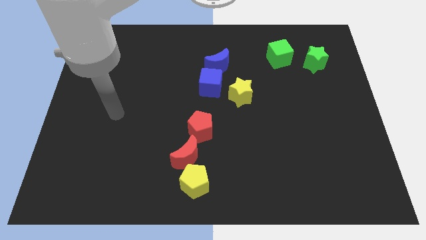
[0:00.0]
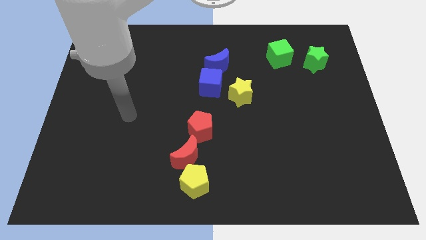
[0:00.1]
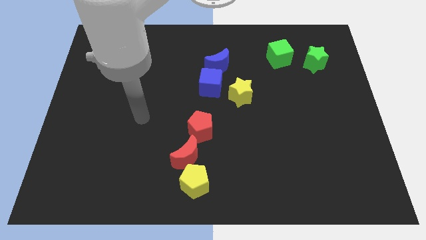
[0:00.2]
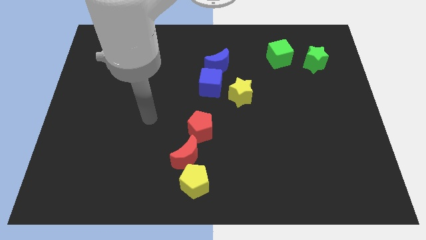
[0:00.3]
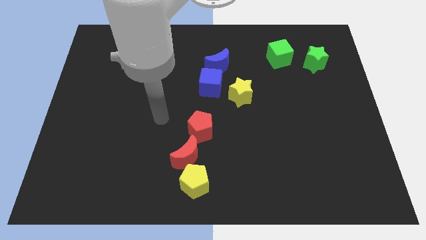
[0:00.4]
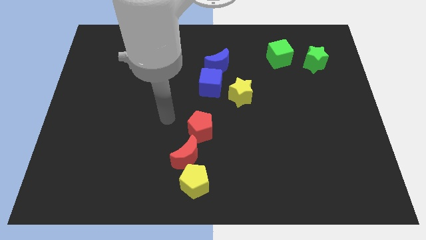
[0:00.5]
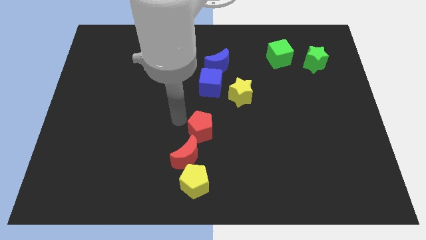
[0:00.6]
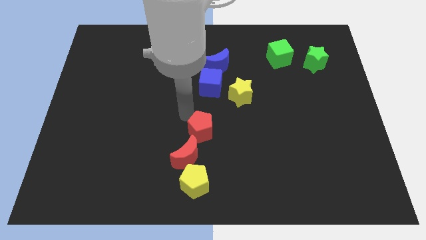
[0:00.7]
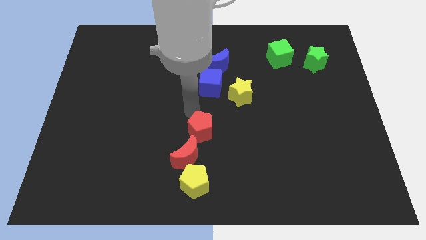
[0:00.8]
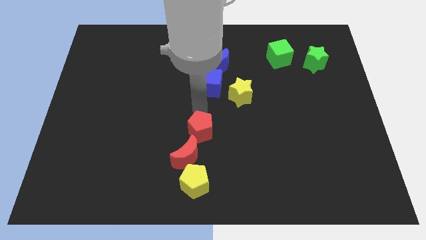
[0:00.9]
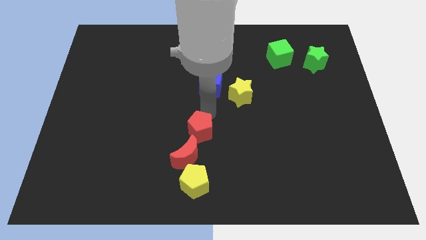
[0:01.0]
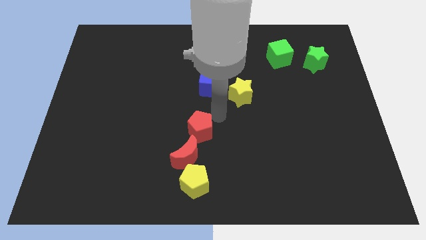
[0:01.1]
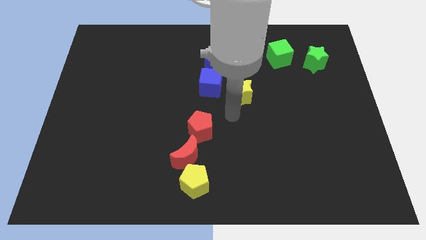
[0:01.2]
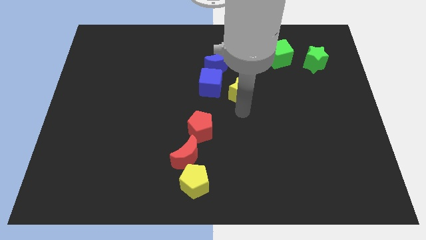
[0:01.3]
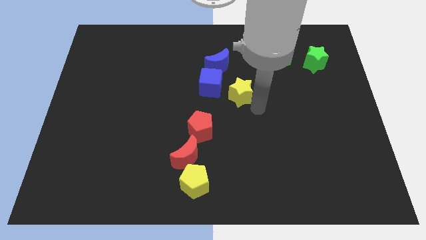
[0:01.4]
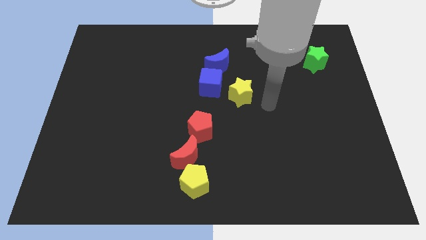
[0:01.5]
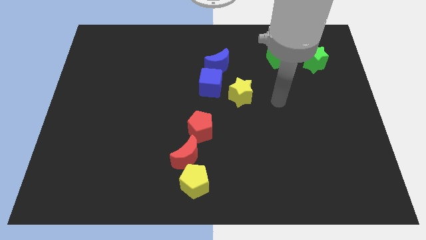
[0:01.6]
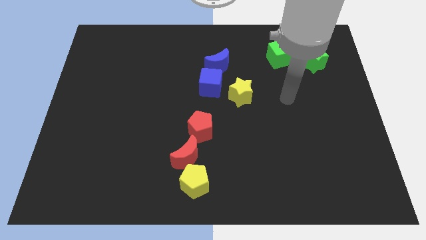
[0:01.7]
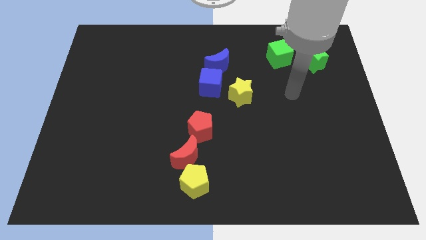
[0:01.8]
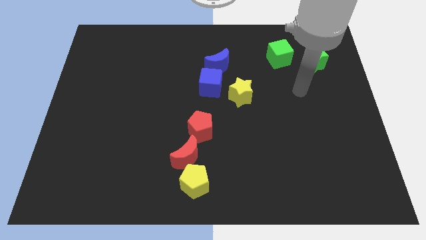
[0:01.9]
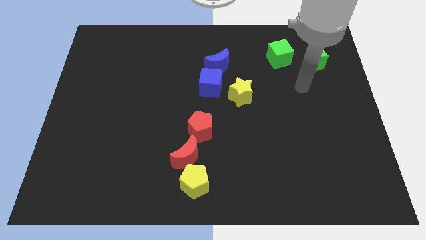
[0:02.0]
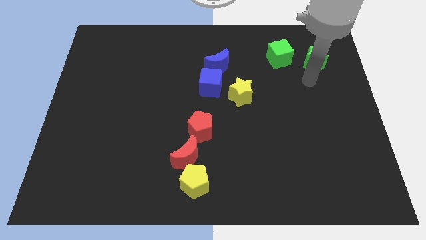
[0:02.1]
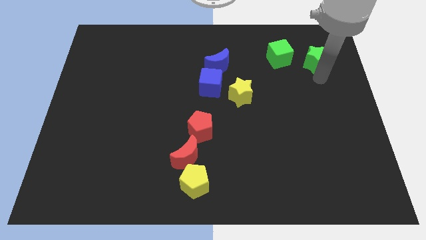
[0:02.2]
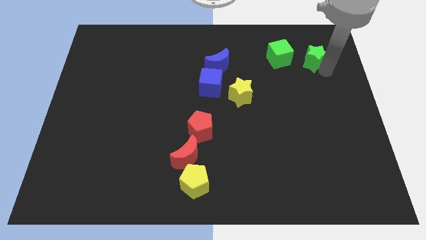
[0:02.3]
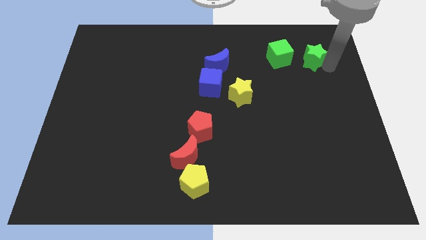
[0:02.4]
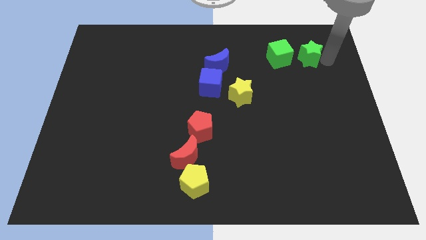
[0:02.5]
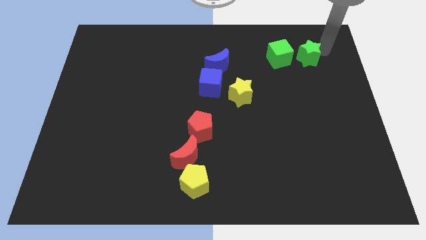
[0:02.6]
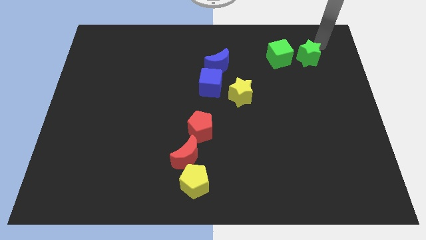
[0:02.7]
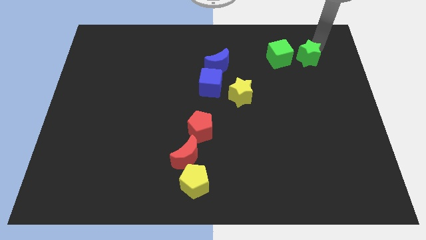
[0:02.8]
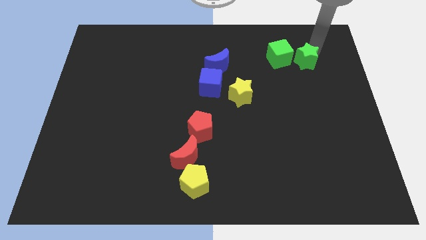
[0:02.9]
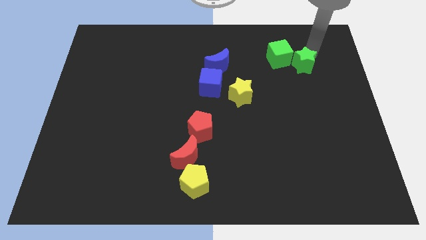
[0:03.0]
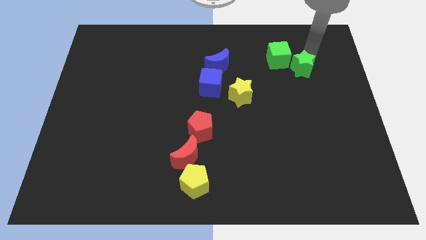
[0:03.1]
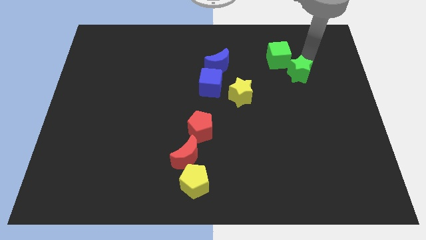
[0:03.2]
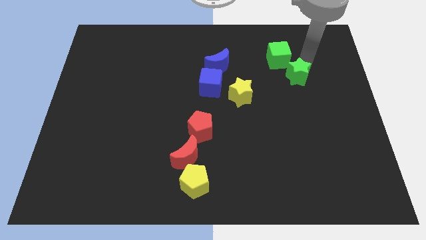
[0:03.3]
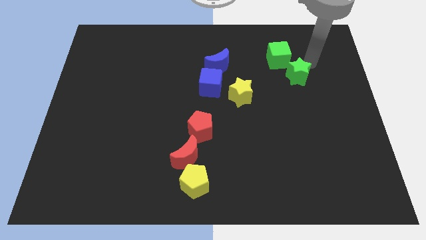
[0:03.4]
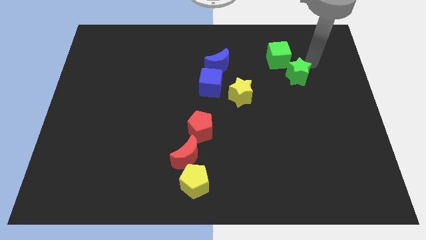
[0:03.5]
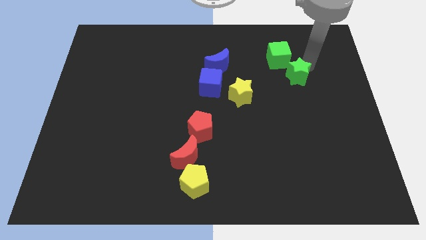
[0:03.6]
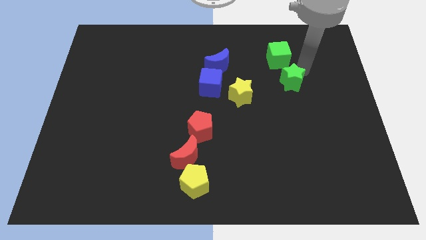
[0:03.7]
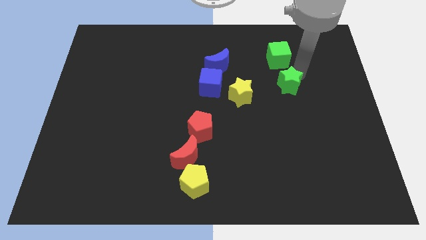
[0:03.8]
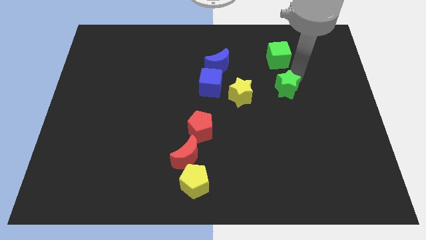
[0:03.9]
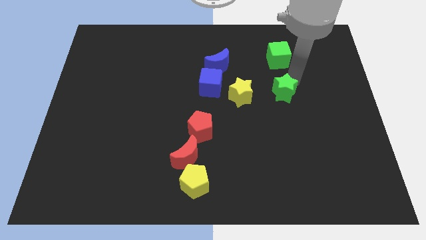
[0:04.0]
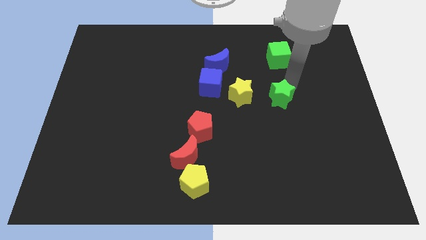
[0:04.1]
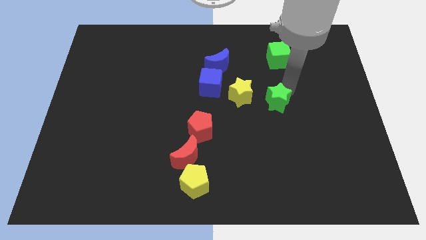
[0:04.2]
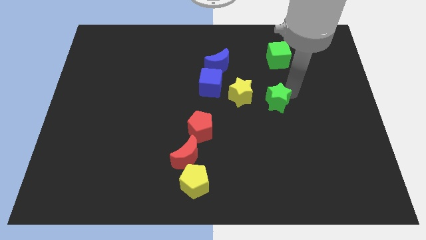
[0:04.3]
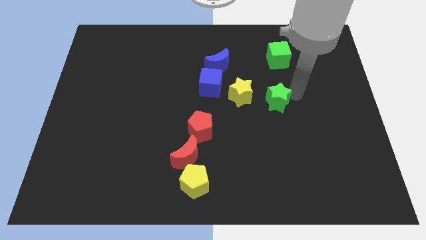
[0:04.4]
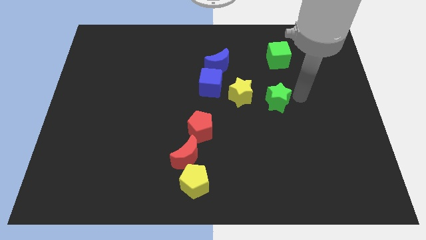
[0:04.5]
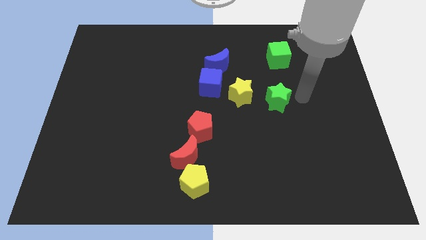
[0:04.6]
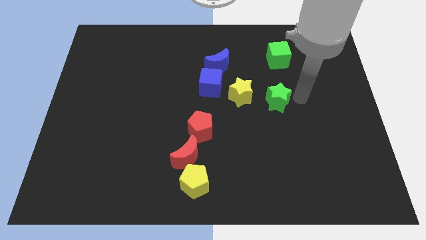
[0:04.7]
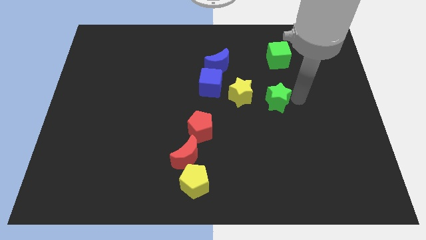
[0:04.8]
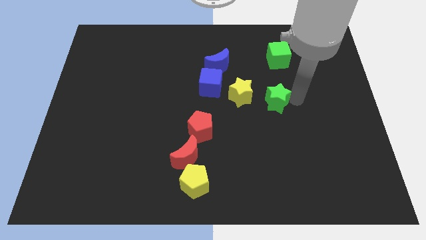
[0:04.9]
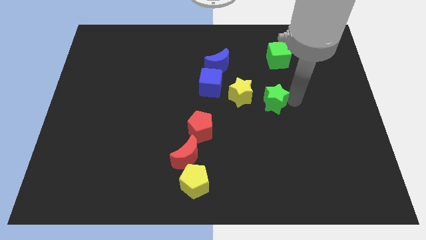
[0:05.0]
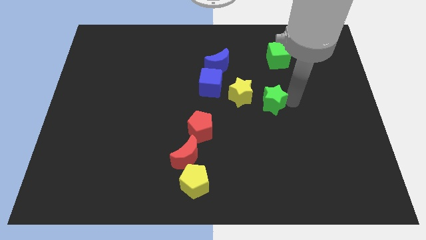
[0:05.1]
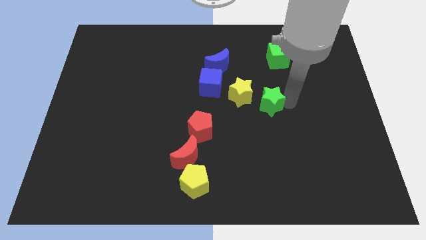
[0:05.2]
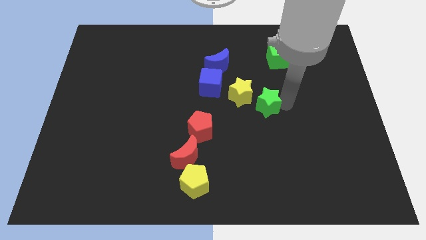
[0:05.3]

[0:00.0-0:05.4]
slide the green star to the center

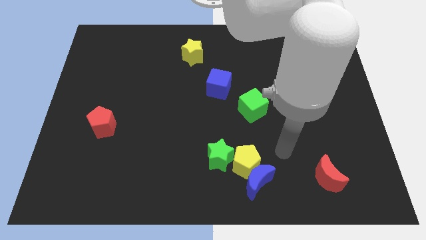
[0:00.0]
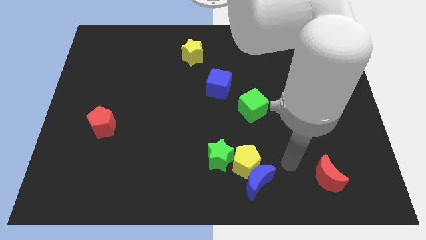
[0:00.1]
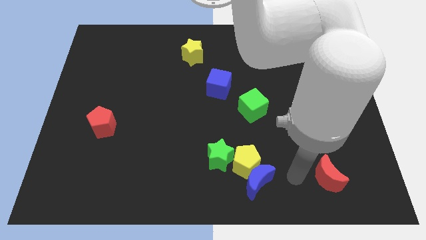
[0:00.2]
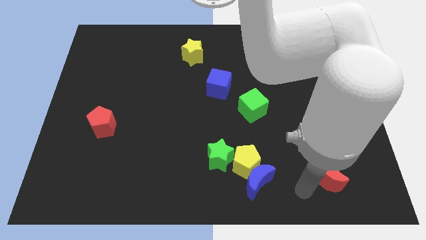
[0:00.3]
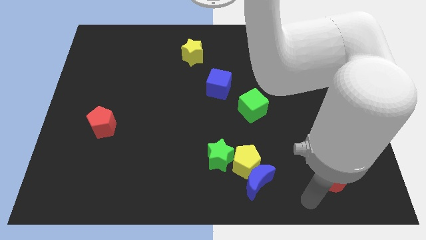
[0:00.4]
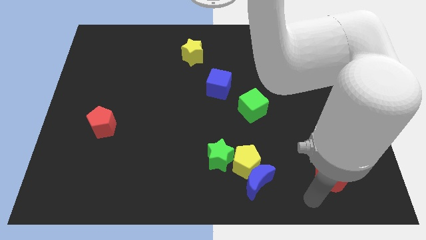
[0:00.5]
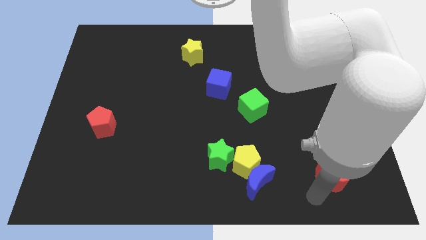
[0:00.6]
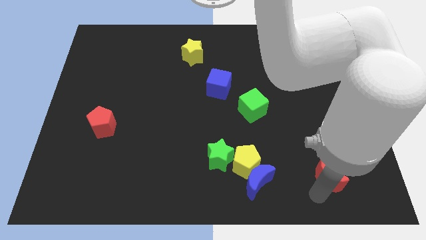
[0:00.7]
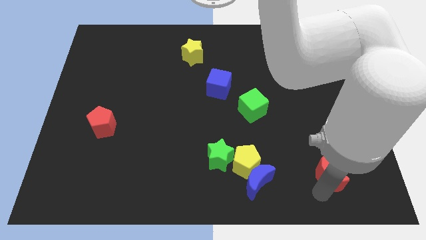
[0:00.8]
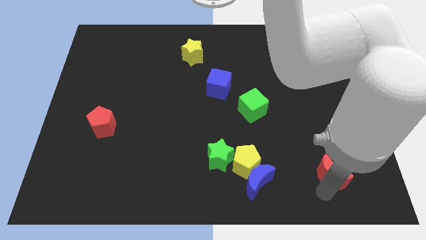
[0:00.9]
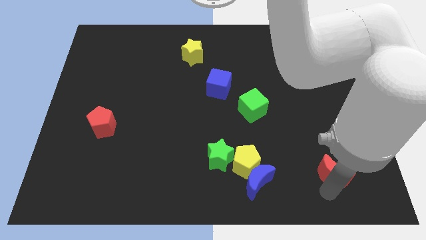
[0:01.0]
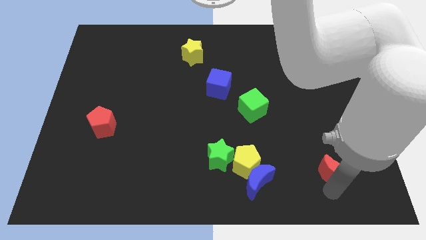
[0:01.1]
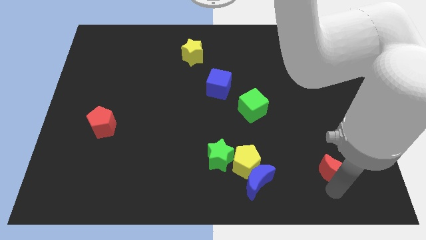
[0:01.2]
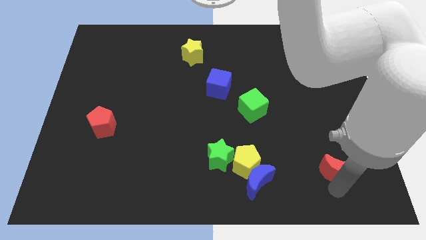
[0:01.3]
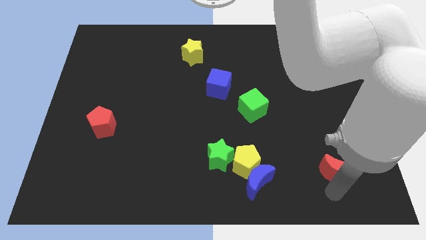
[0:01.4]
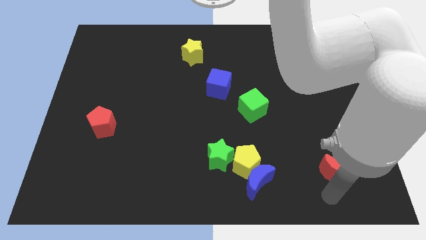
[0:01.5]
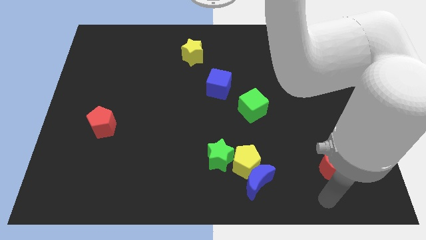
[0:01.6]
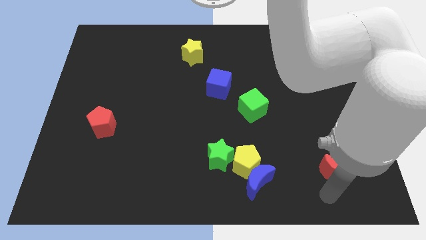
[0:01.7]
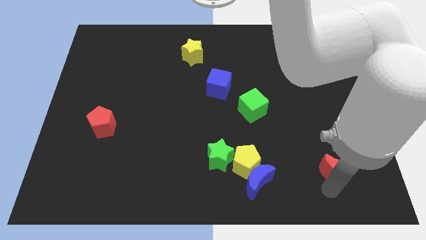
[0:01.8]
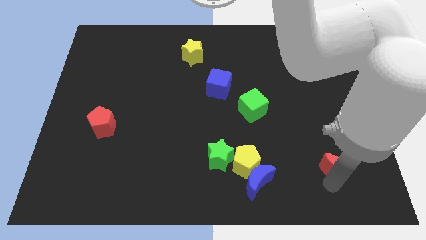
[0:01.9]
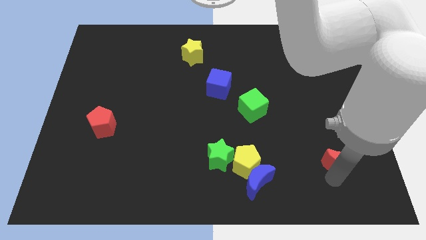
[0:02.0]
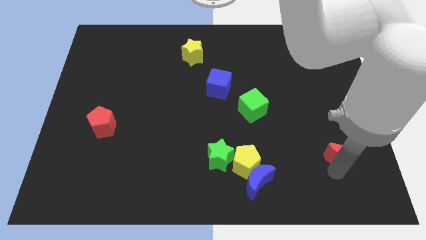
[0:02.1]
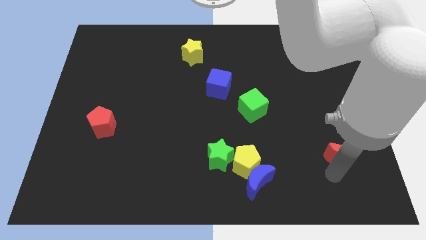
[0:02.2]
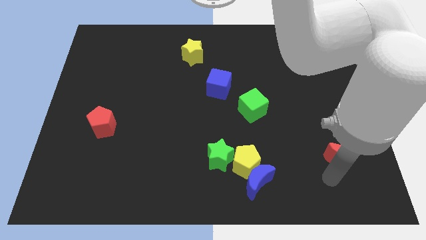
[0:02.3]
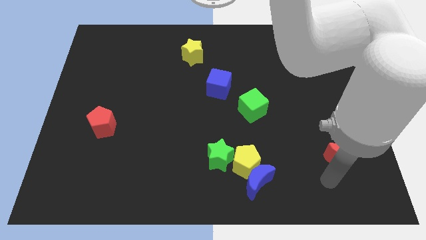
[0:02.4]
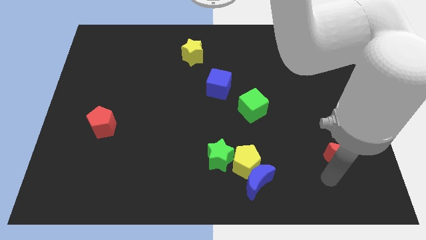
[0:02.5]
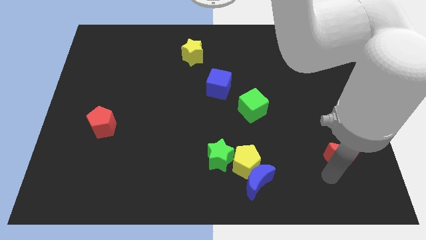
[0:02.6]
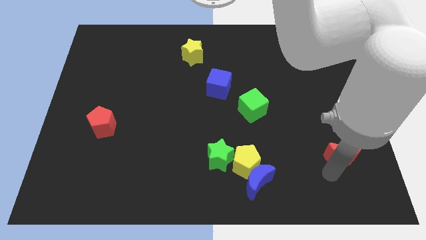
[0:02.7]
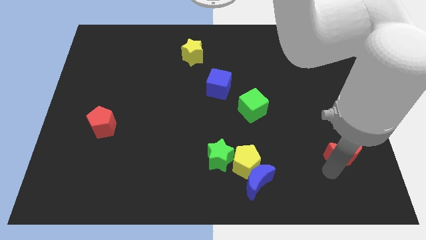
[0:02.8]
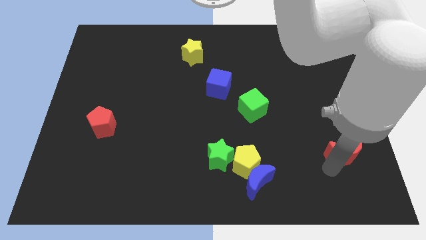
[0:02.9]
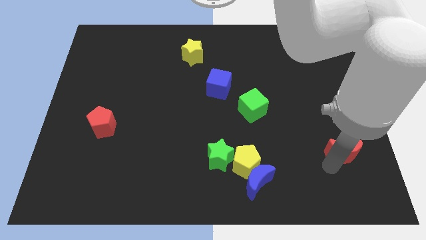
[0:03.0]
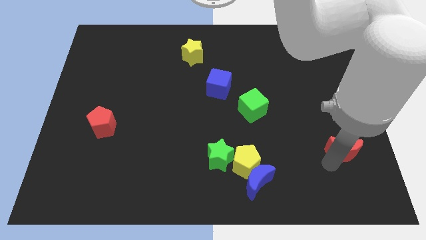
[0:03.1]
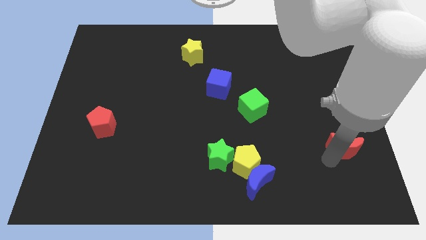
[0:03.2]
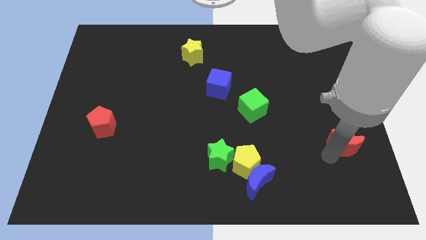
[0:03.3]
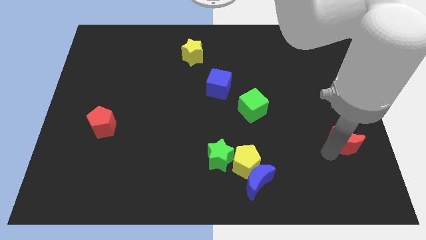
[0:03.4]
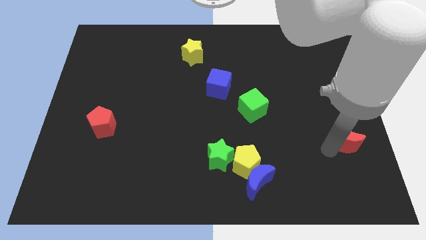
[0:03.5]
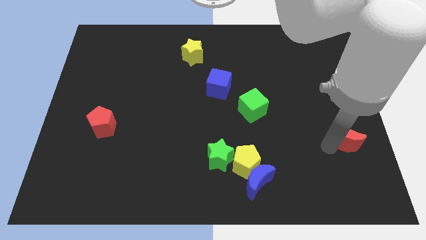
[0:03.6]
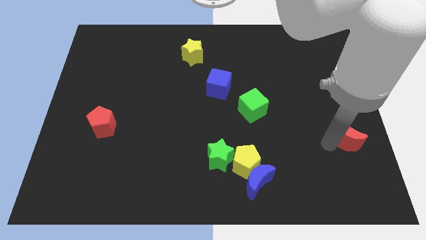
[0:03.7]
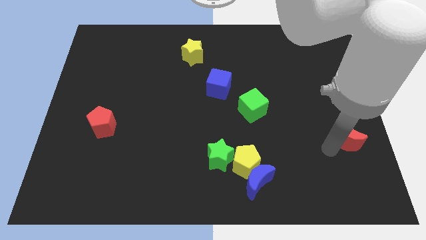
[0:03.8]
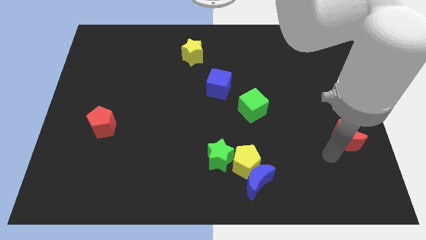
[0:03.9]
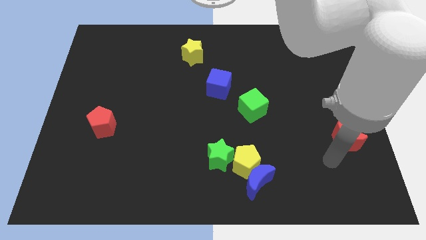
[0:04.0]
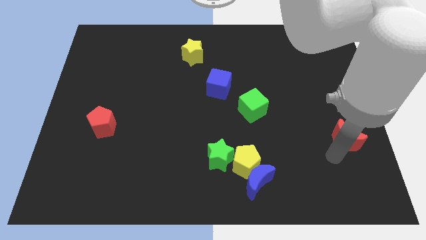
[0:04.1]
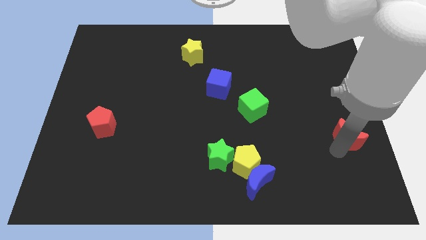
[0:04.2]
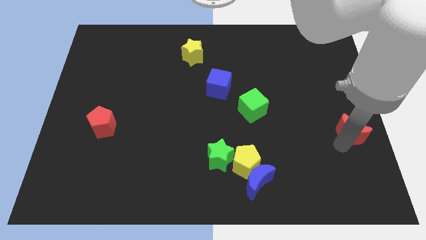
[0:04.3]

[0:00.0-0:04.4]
put the red moon to the center right
